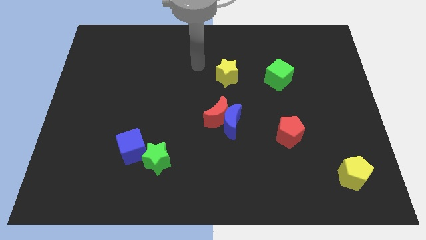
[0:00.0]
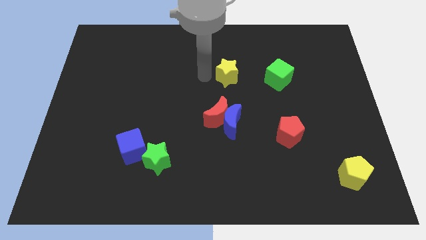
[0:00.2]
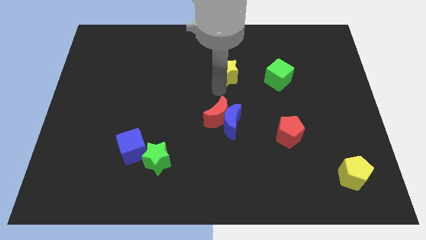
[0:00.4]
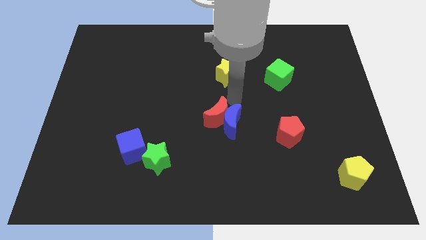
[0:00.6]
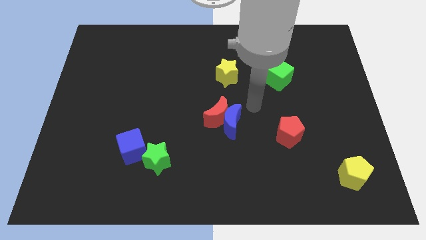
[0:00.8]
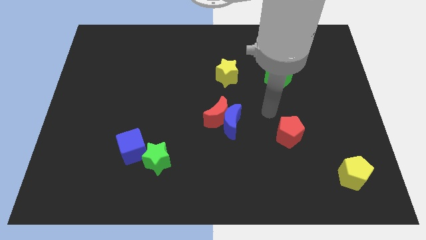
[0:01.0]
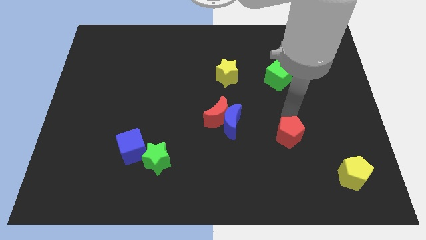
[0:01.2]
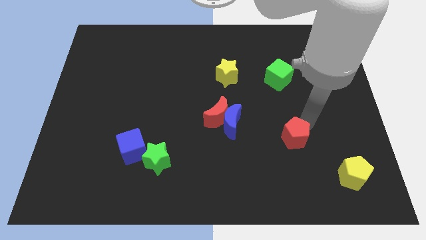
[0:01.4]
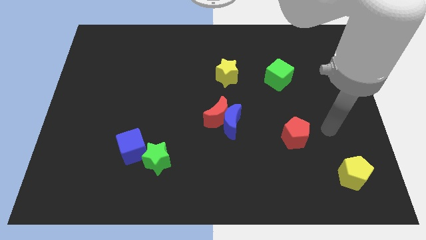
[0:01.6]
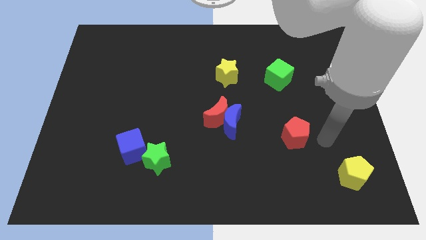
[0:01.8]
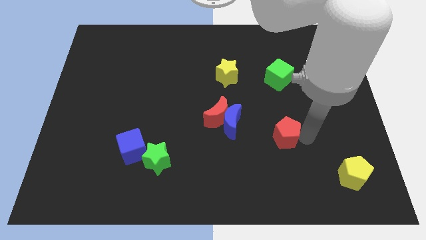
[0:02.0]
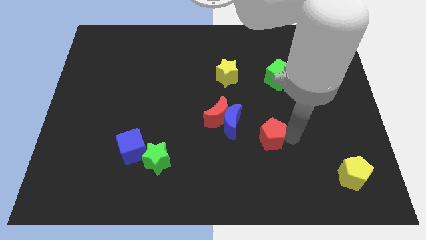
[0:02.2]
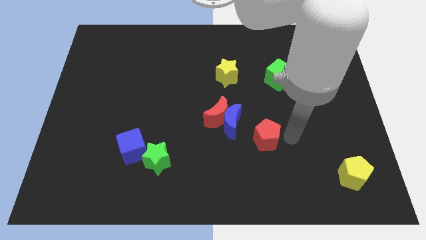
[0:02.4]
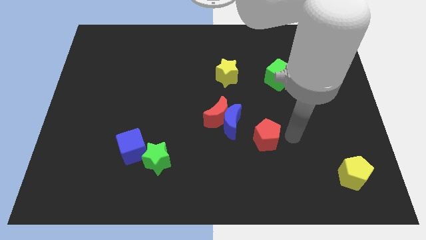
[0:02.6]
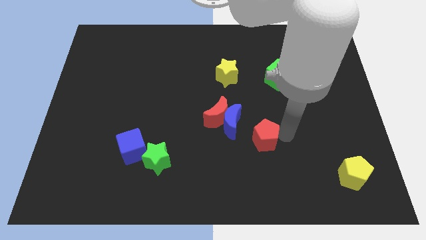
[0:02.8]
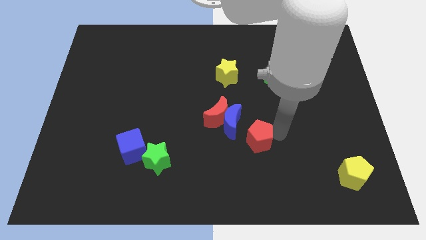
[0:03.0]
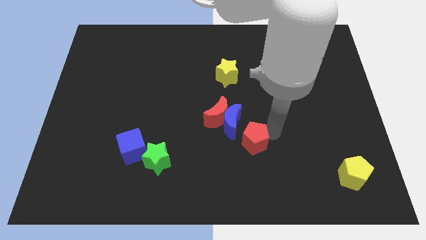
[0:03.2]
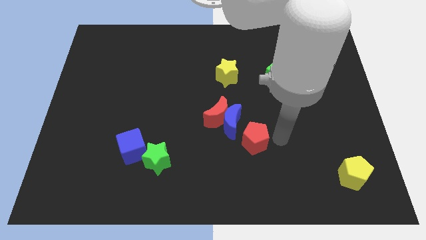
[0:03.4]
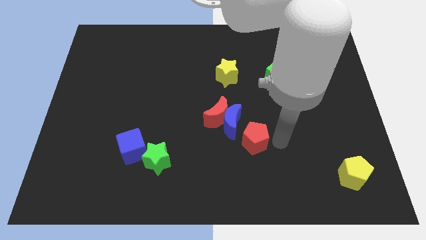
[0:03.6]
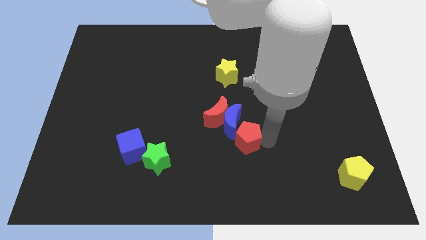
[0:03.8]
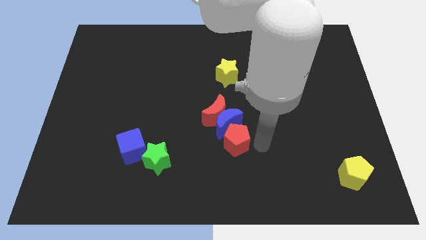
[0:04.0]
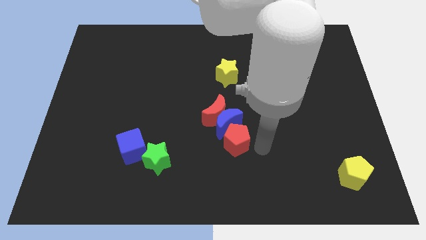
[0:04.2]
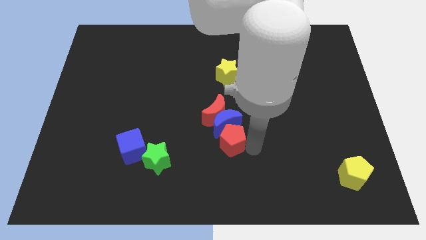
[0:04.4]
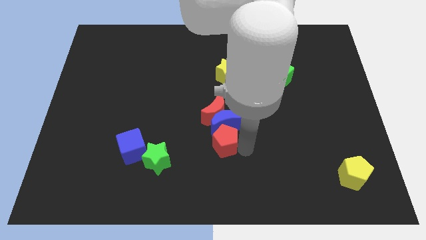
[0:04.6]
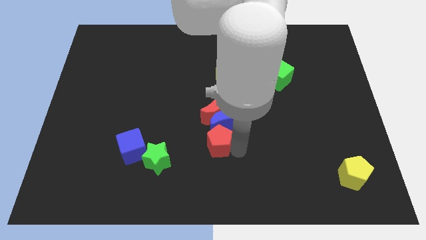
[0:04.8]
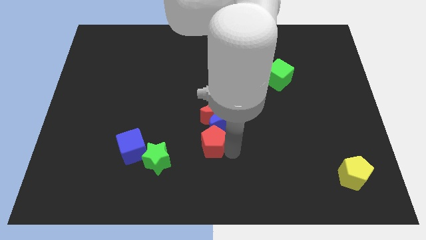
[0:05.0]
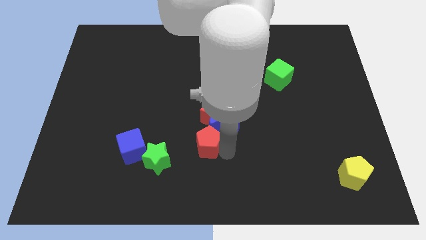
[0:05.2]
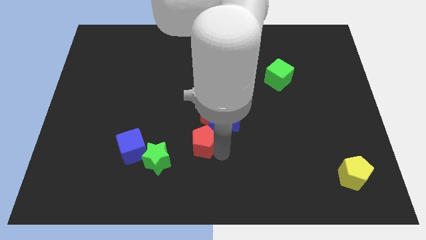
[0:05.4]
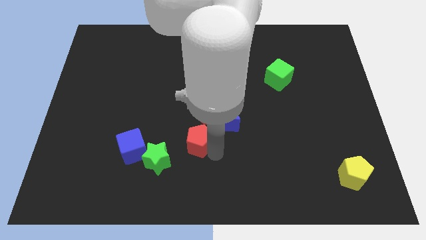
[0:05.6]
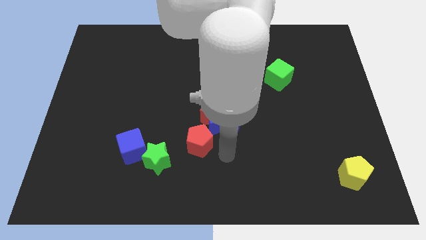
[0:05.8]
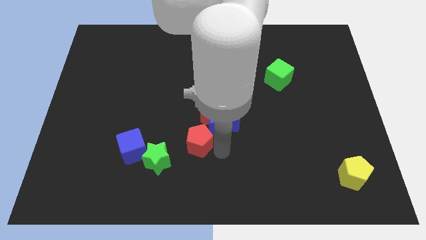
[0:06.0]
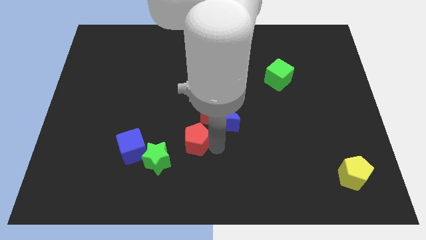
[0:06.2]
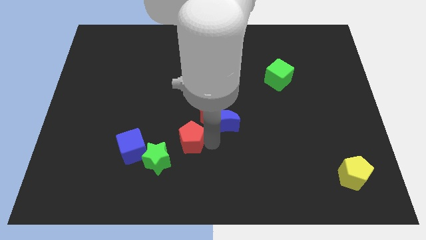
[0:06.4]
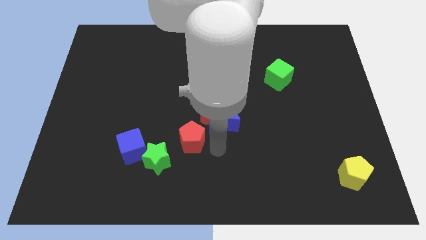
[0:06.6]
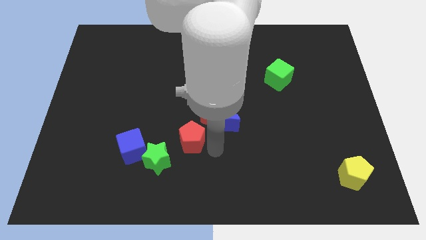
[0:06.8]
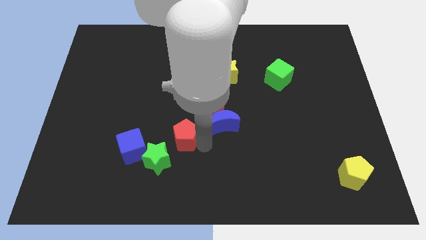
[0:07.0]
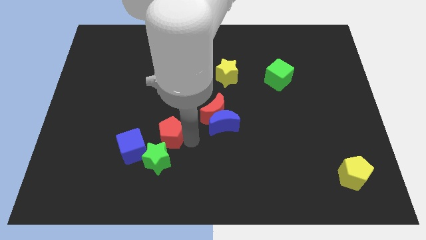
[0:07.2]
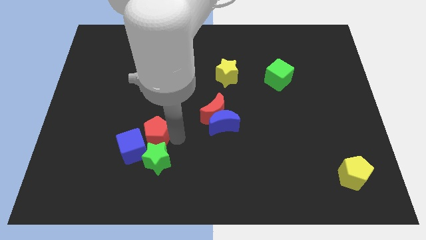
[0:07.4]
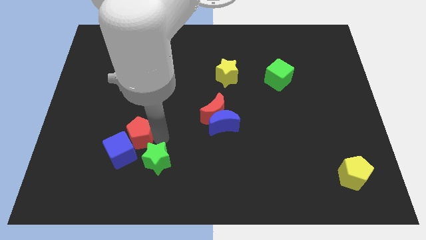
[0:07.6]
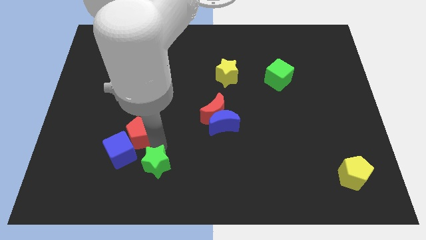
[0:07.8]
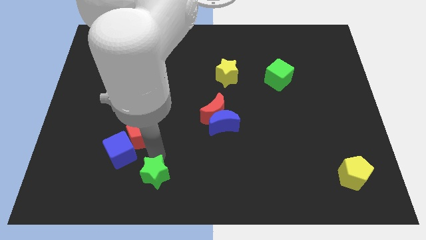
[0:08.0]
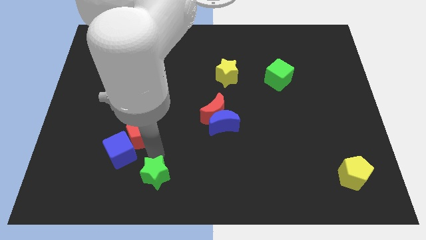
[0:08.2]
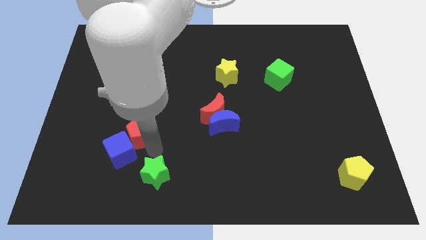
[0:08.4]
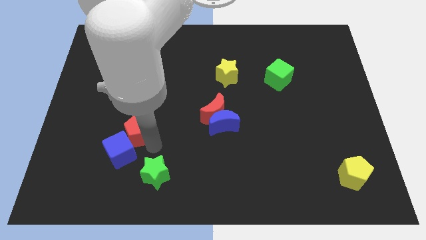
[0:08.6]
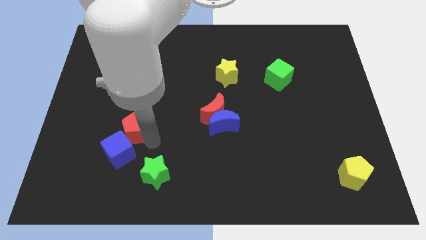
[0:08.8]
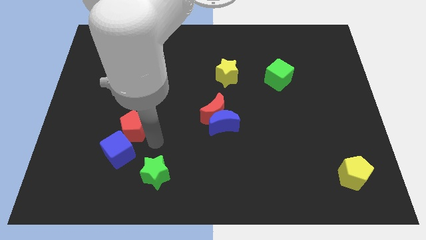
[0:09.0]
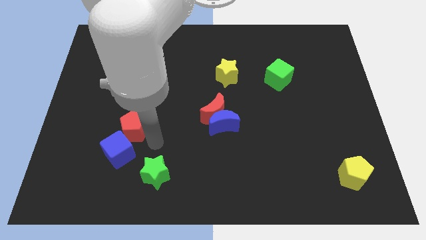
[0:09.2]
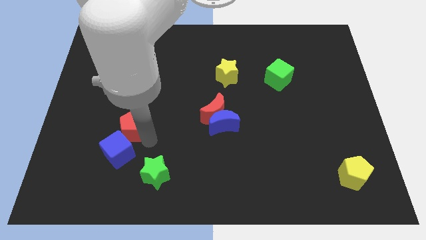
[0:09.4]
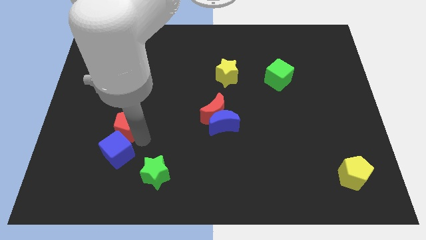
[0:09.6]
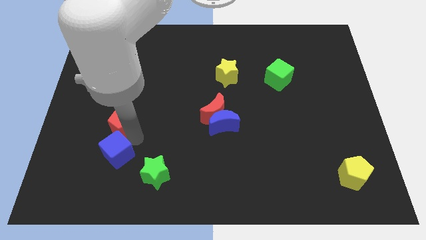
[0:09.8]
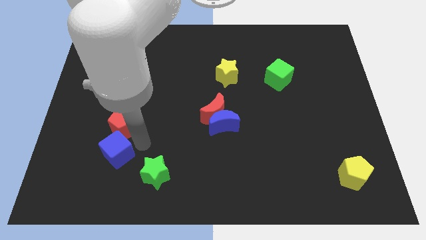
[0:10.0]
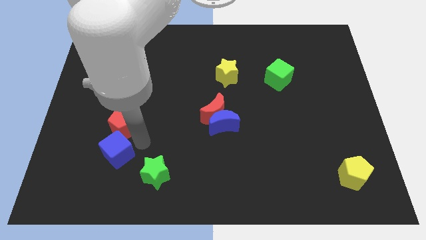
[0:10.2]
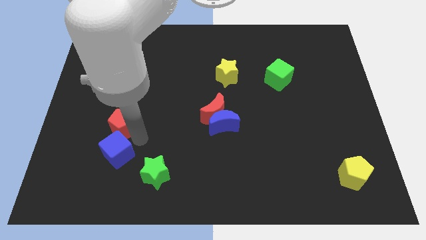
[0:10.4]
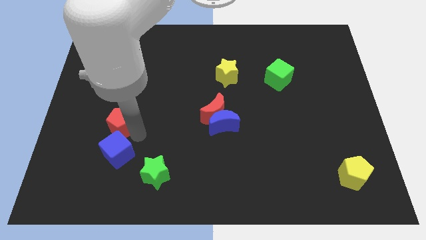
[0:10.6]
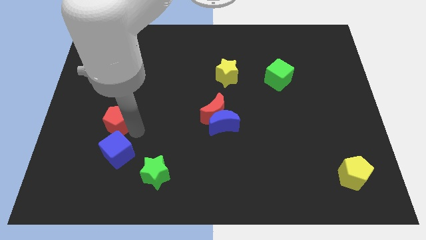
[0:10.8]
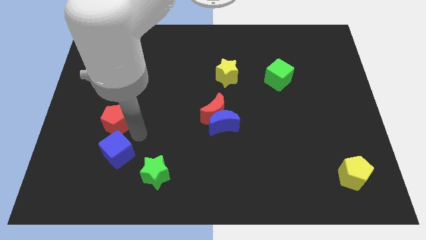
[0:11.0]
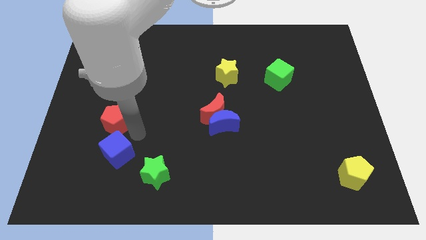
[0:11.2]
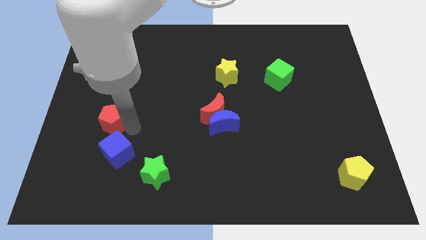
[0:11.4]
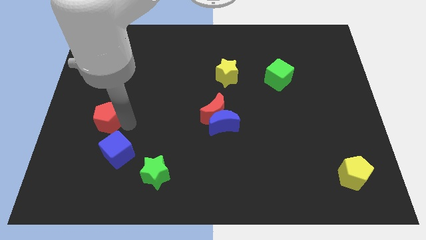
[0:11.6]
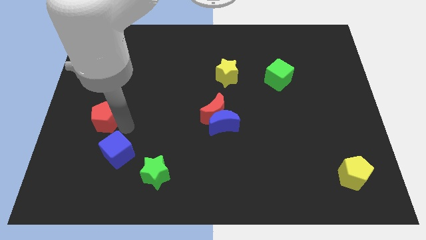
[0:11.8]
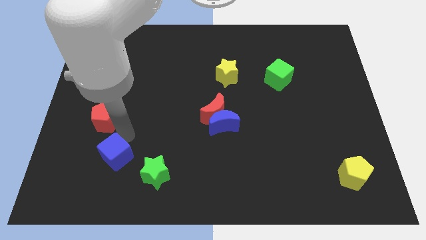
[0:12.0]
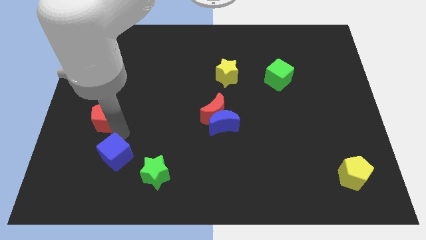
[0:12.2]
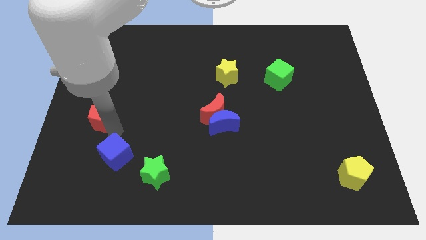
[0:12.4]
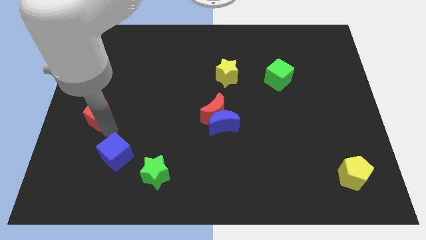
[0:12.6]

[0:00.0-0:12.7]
push the red pentagon to the left side of the board
